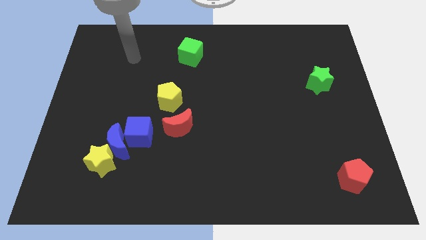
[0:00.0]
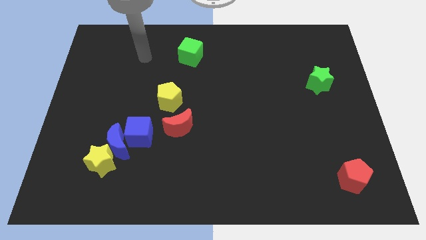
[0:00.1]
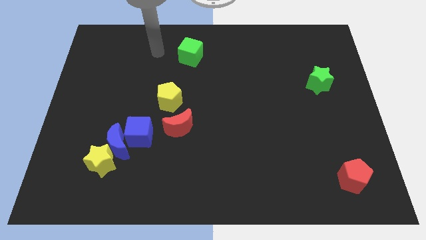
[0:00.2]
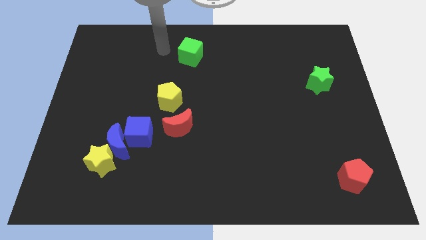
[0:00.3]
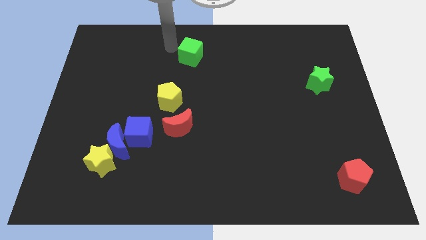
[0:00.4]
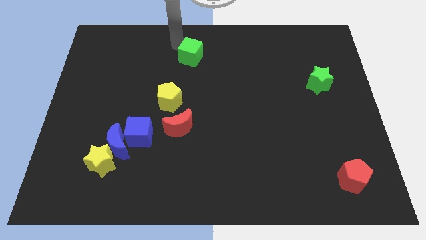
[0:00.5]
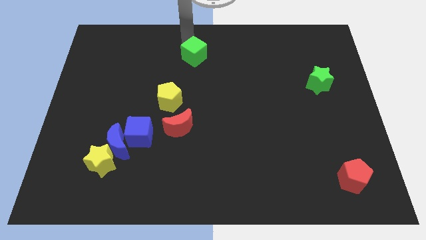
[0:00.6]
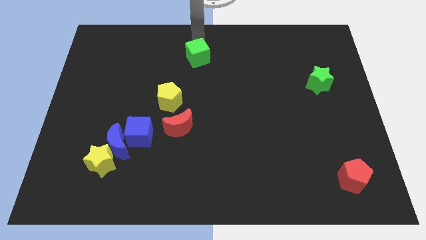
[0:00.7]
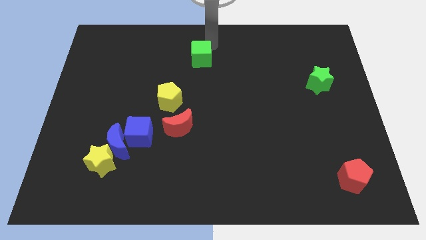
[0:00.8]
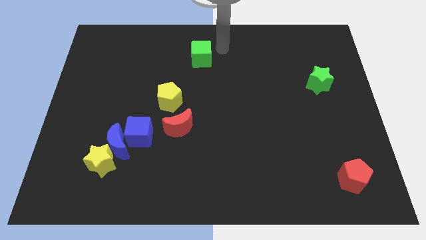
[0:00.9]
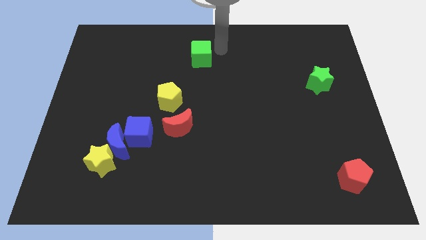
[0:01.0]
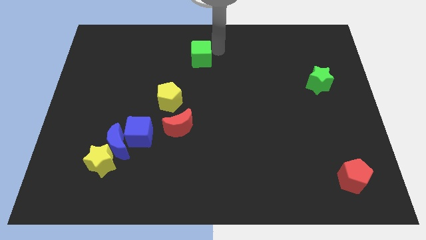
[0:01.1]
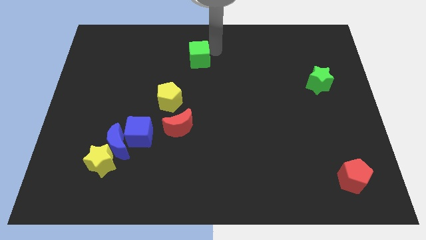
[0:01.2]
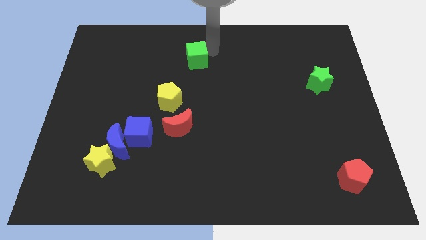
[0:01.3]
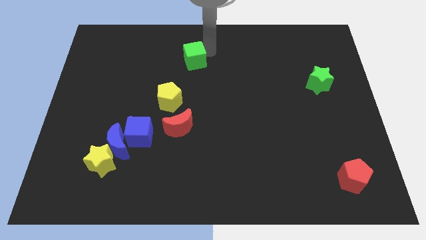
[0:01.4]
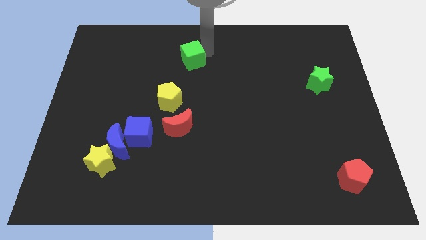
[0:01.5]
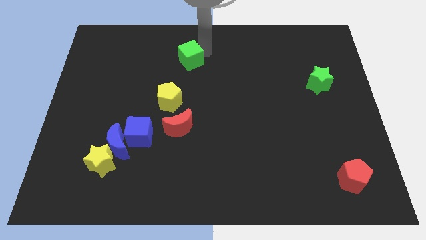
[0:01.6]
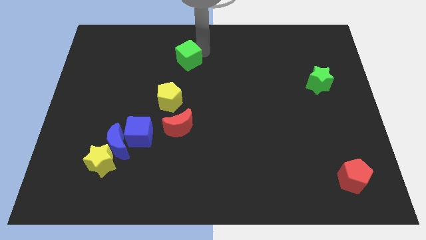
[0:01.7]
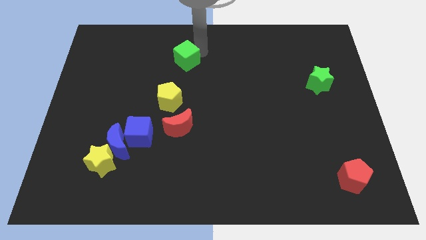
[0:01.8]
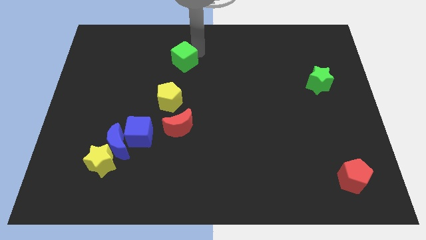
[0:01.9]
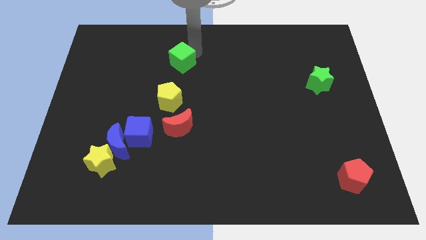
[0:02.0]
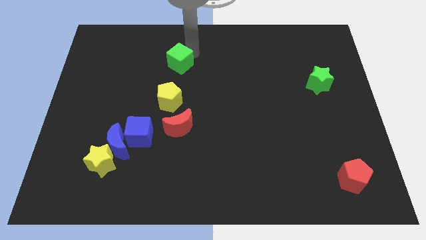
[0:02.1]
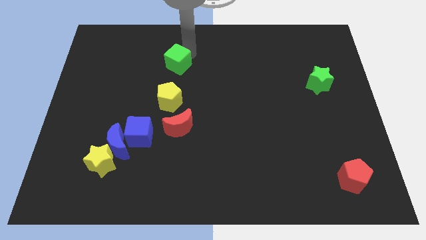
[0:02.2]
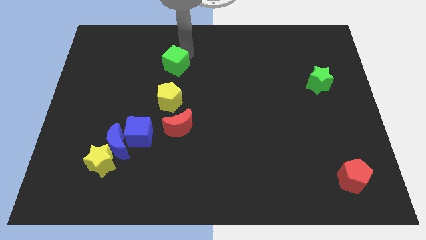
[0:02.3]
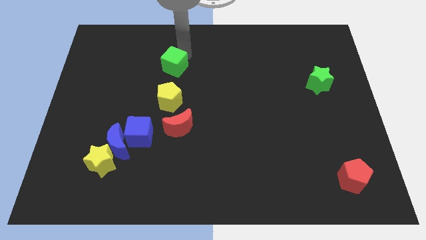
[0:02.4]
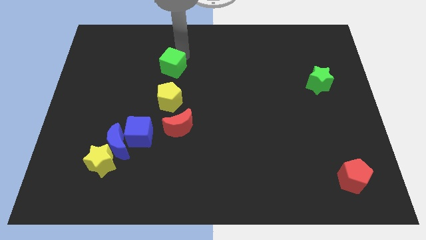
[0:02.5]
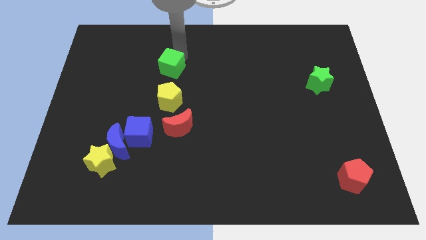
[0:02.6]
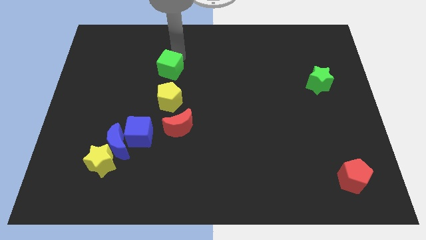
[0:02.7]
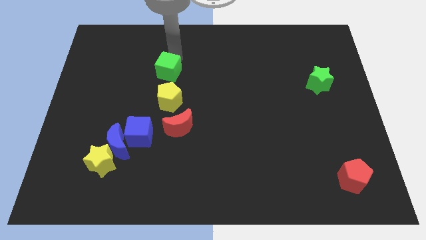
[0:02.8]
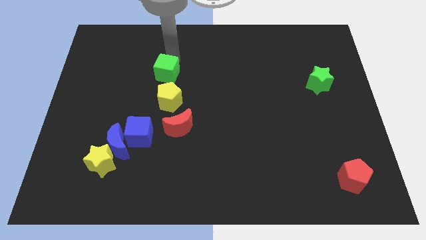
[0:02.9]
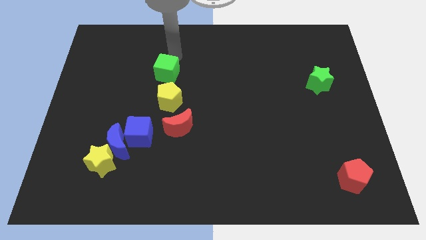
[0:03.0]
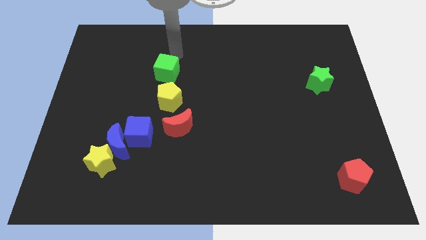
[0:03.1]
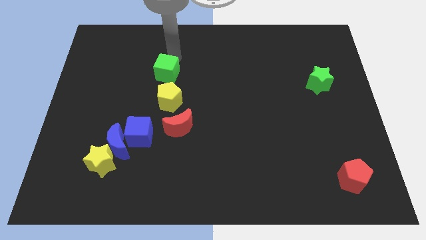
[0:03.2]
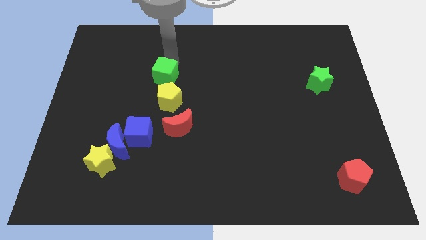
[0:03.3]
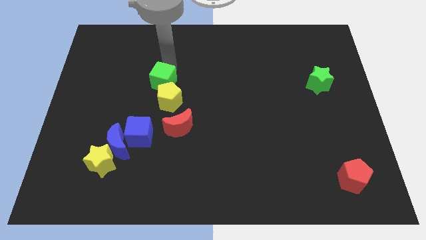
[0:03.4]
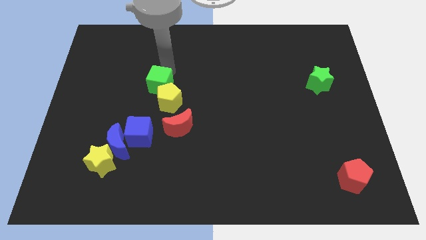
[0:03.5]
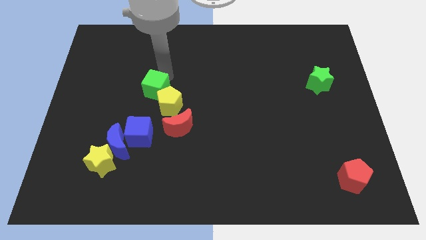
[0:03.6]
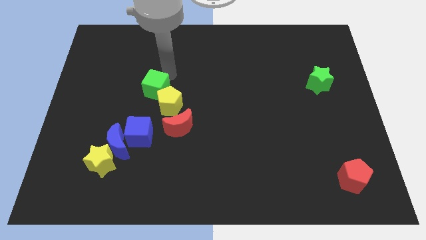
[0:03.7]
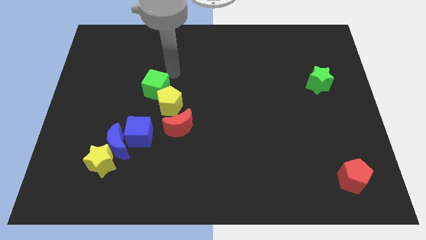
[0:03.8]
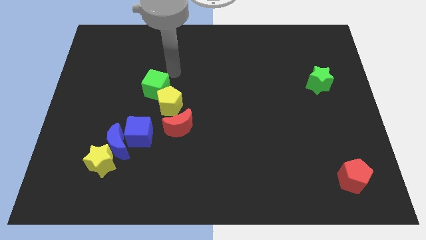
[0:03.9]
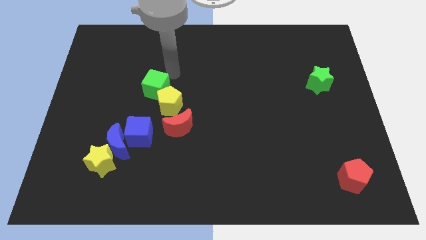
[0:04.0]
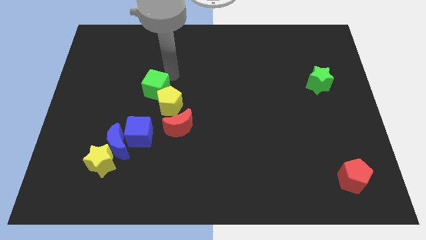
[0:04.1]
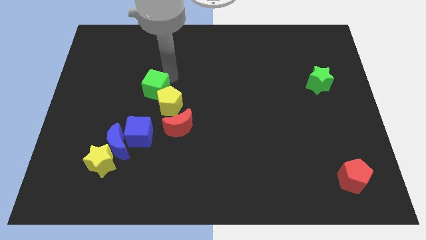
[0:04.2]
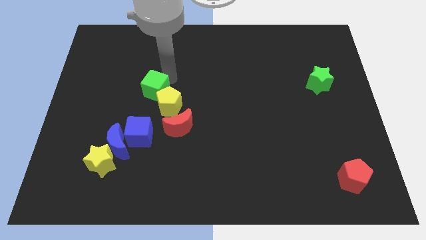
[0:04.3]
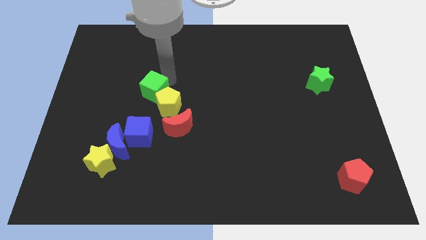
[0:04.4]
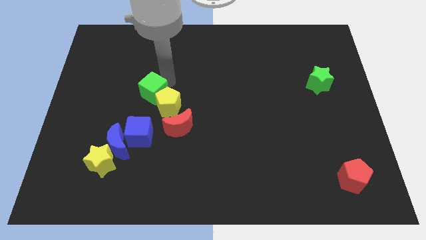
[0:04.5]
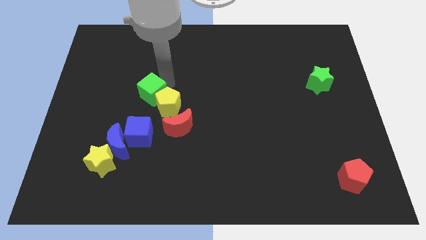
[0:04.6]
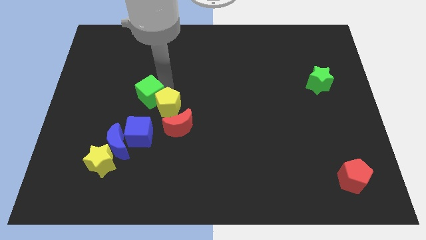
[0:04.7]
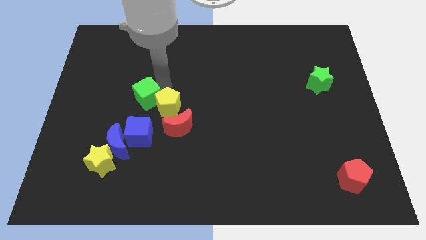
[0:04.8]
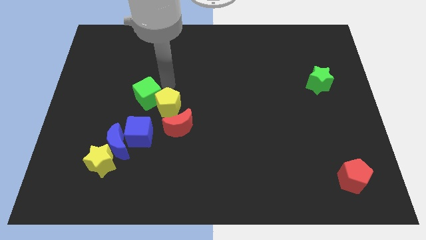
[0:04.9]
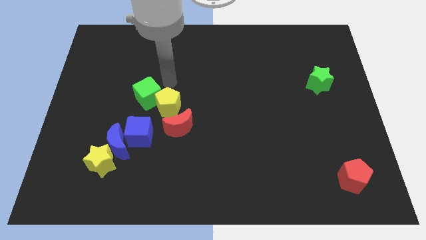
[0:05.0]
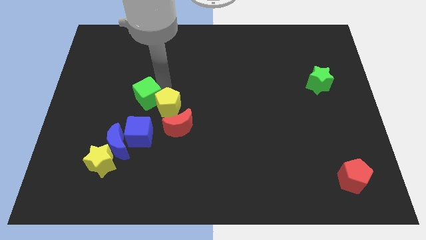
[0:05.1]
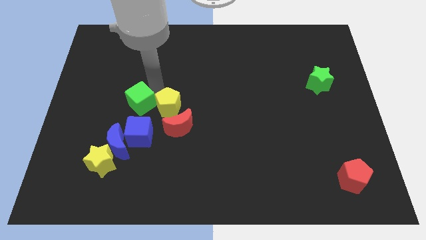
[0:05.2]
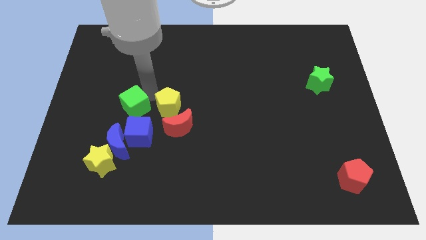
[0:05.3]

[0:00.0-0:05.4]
slide the green cube to the top left of the blue cube

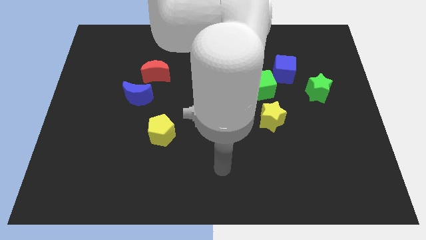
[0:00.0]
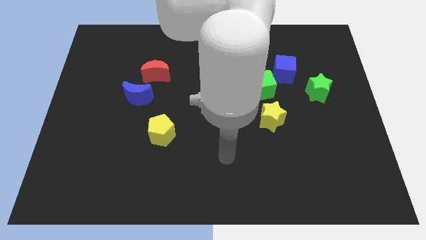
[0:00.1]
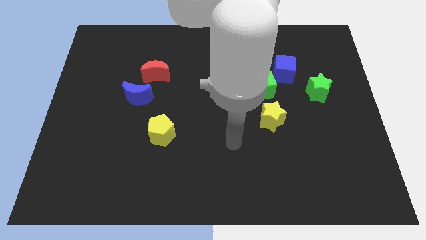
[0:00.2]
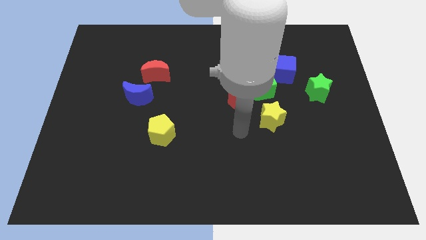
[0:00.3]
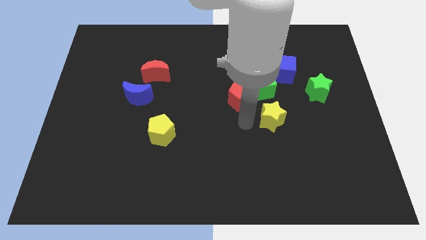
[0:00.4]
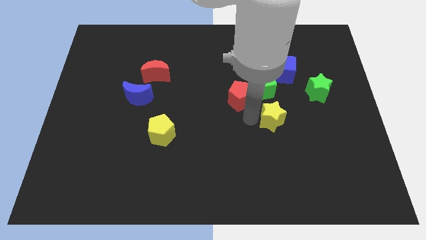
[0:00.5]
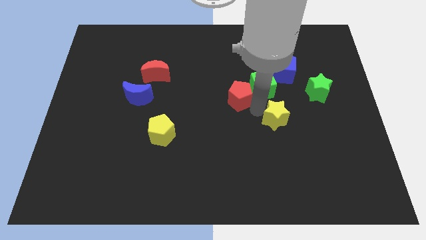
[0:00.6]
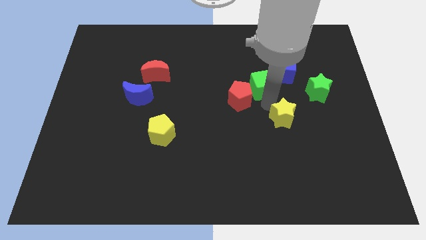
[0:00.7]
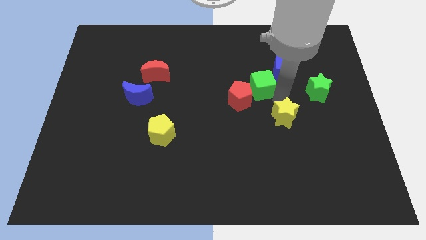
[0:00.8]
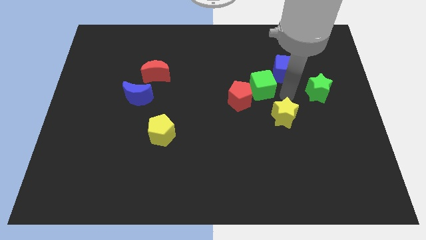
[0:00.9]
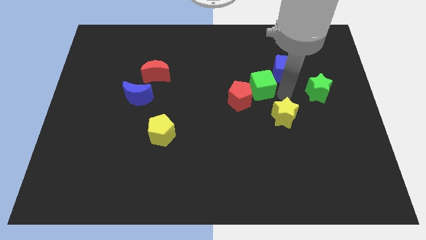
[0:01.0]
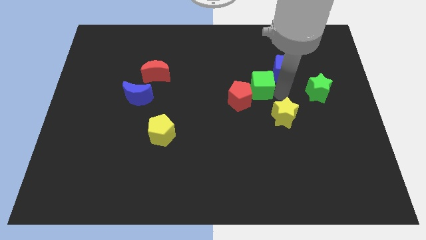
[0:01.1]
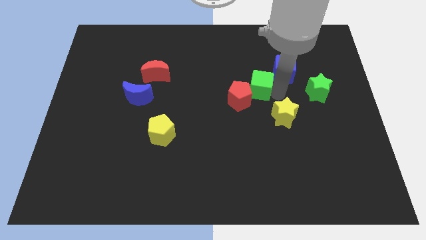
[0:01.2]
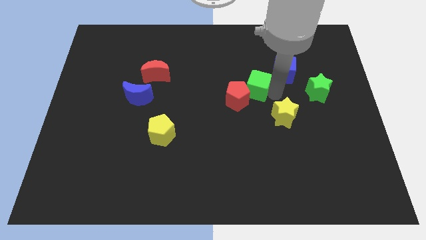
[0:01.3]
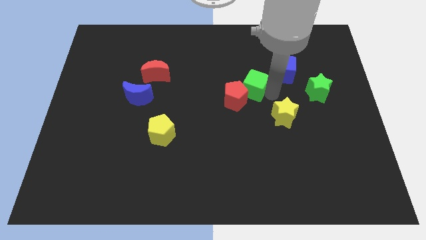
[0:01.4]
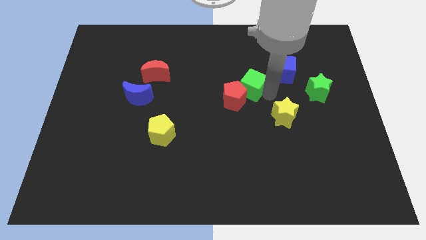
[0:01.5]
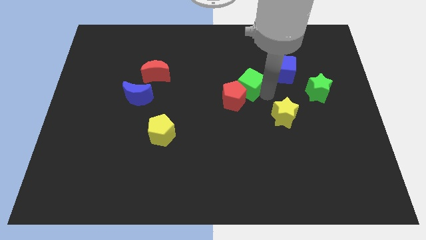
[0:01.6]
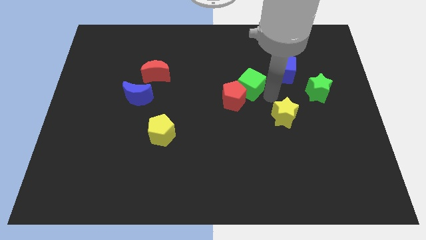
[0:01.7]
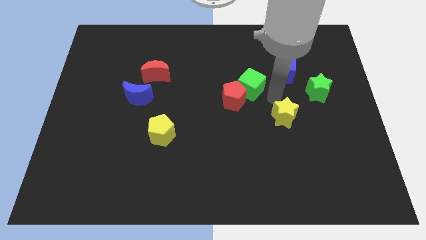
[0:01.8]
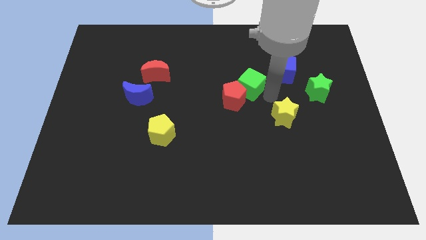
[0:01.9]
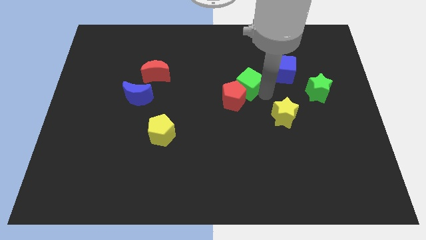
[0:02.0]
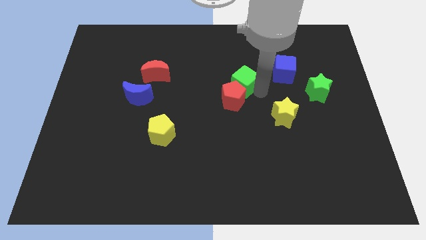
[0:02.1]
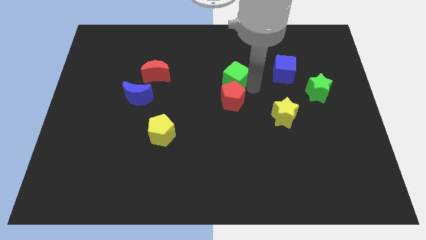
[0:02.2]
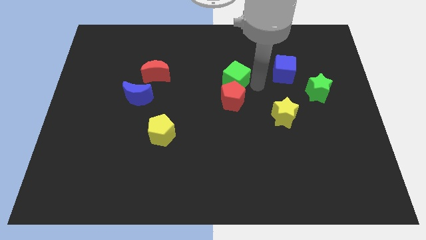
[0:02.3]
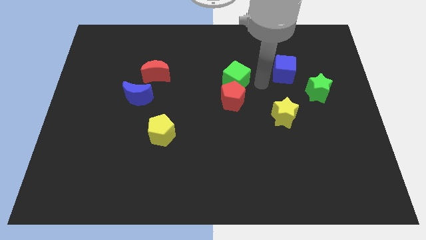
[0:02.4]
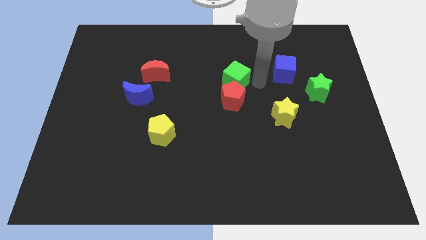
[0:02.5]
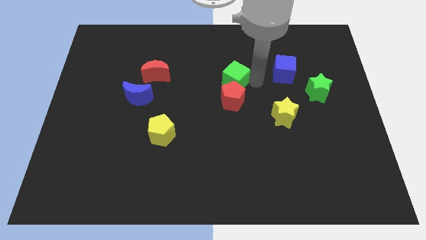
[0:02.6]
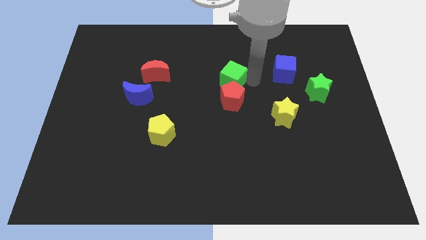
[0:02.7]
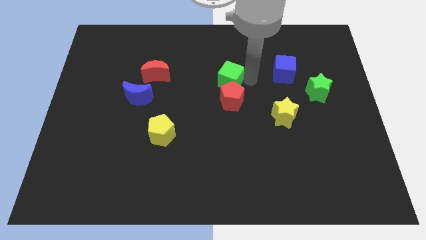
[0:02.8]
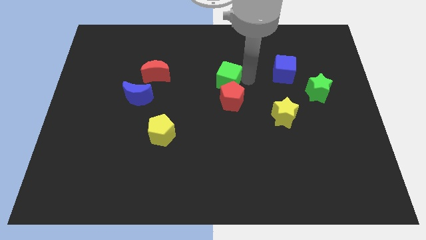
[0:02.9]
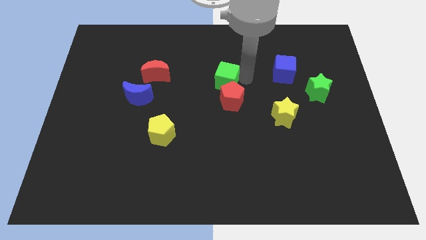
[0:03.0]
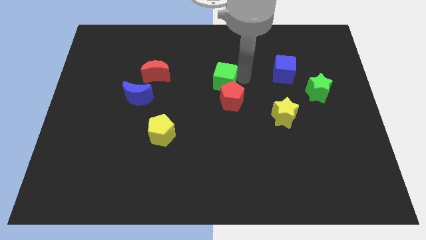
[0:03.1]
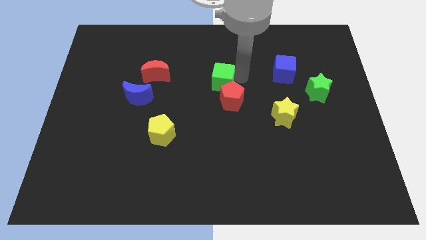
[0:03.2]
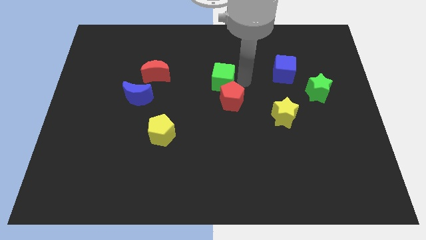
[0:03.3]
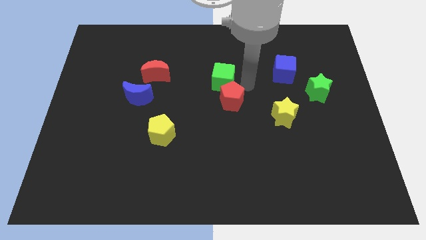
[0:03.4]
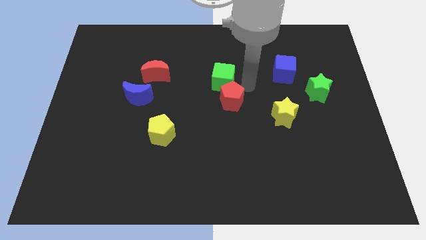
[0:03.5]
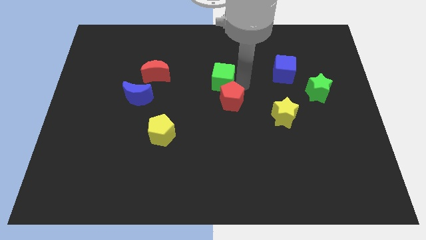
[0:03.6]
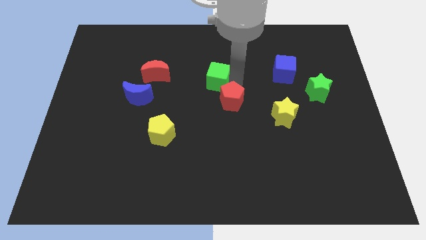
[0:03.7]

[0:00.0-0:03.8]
push the green cube to the right of the red moon
